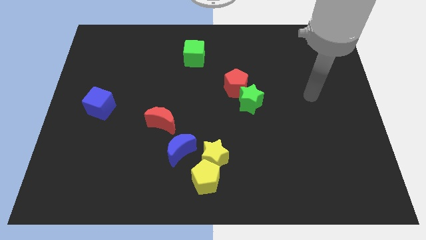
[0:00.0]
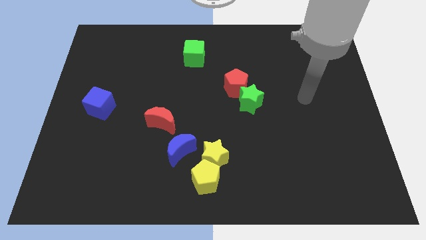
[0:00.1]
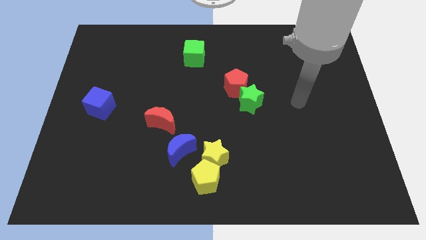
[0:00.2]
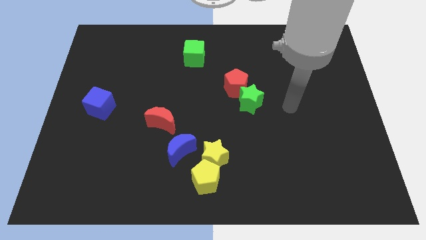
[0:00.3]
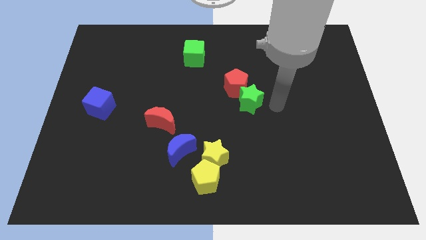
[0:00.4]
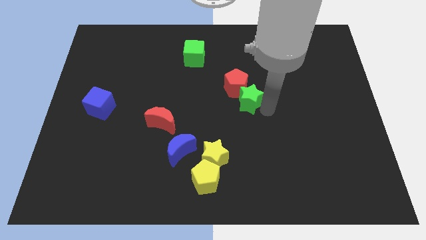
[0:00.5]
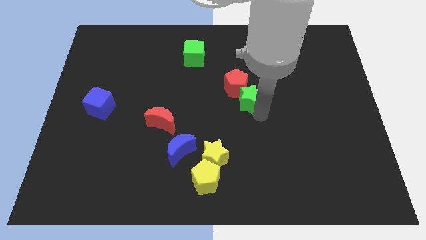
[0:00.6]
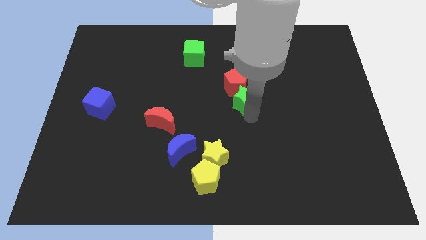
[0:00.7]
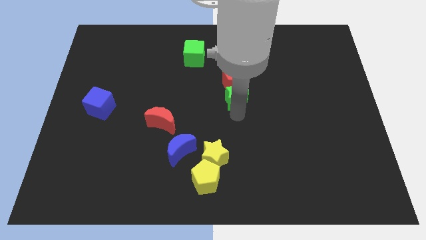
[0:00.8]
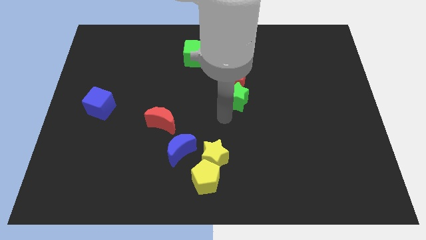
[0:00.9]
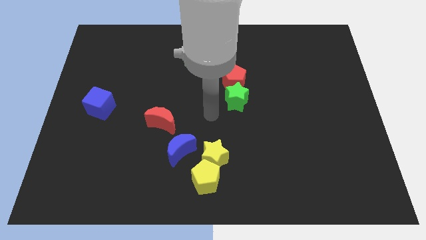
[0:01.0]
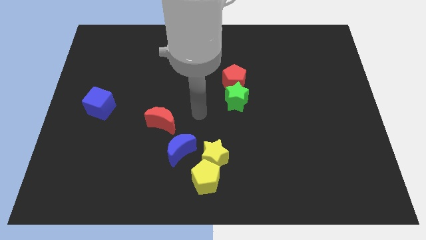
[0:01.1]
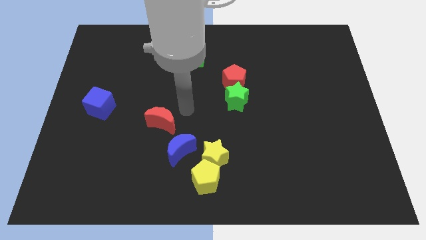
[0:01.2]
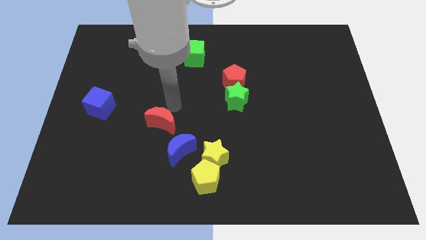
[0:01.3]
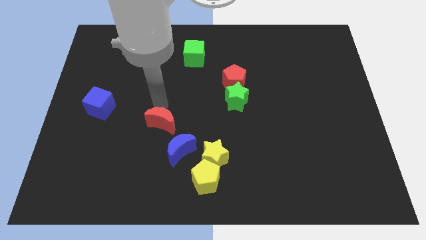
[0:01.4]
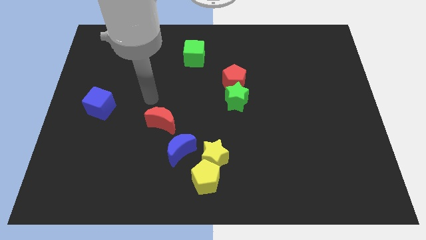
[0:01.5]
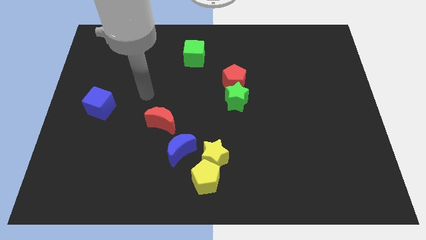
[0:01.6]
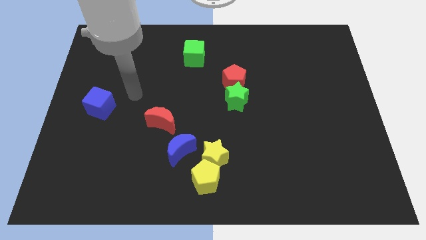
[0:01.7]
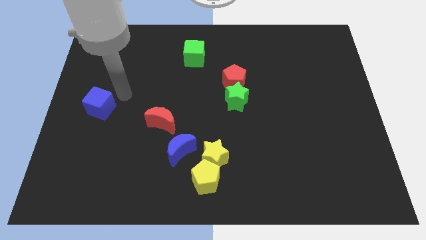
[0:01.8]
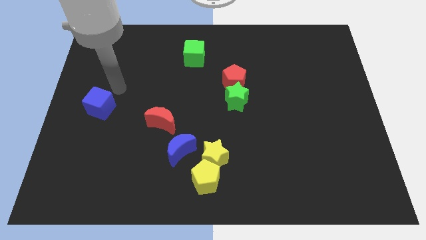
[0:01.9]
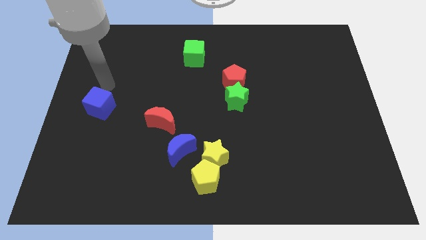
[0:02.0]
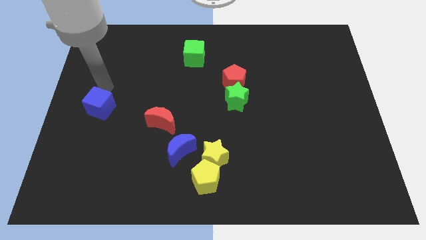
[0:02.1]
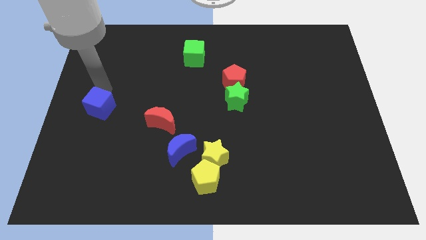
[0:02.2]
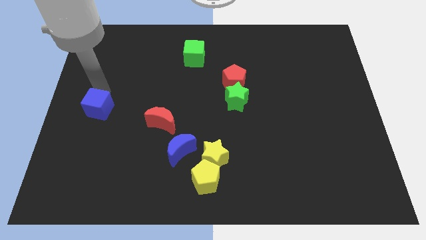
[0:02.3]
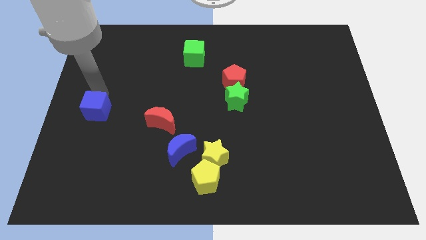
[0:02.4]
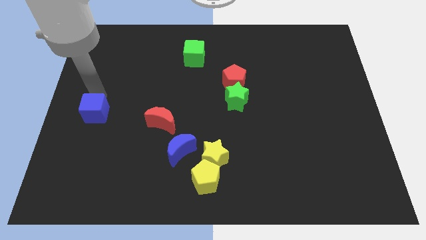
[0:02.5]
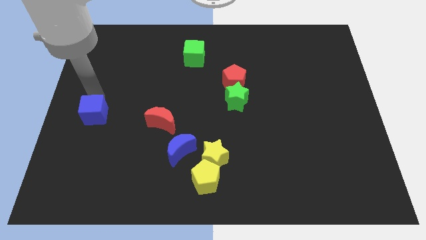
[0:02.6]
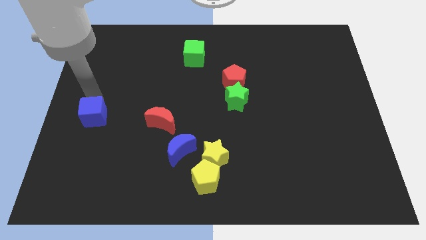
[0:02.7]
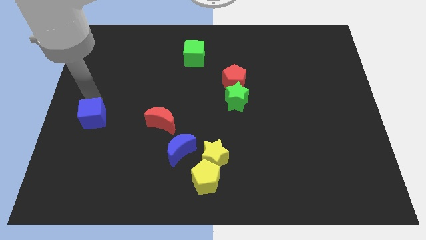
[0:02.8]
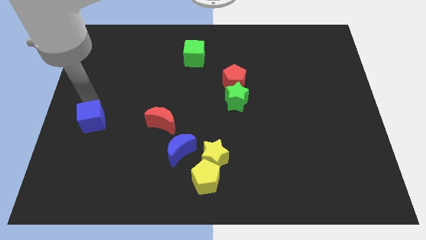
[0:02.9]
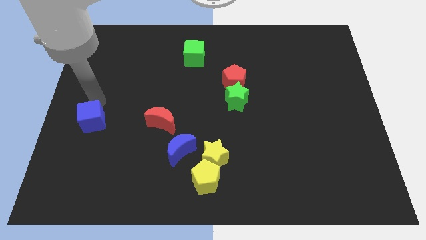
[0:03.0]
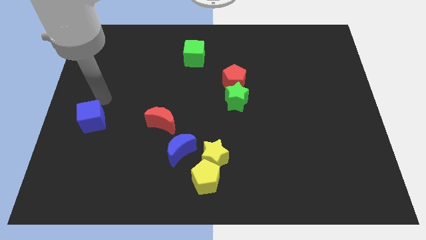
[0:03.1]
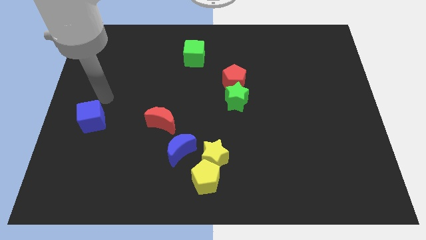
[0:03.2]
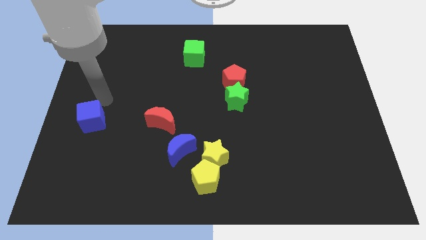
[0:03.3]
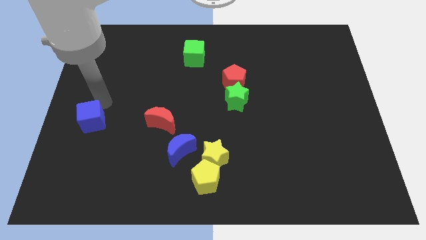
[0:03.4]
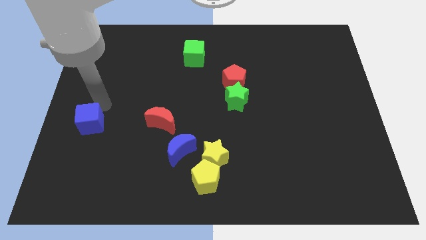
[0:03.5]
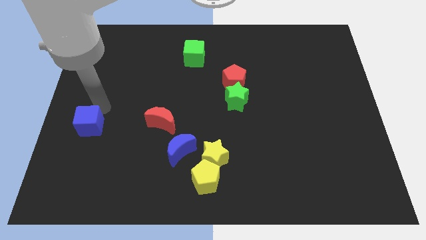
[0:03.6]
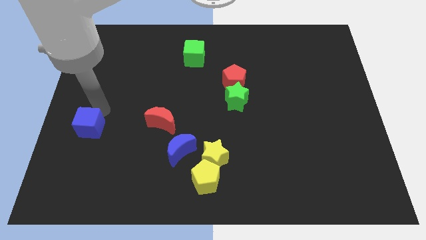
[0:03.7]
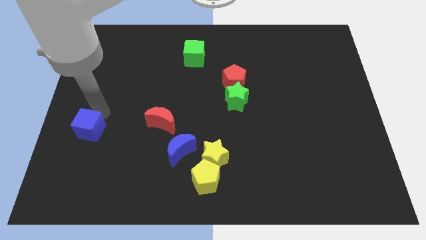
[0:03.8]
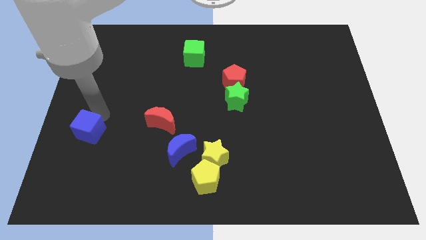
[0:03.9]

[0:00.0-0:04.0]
slightly move the blue cube down

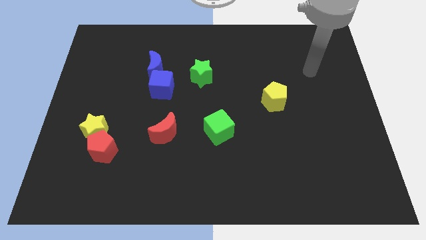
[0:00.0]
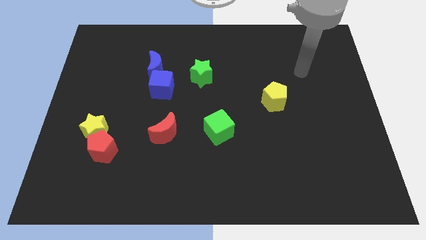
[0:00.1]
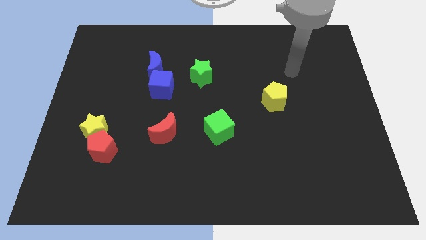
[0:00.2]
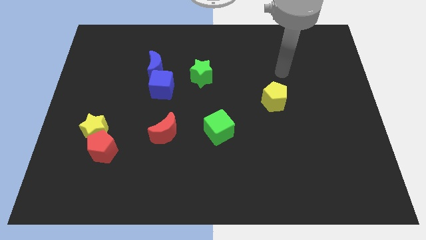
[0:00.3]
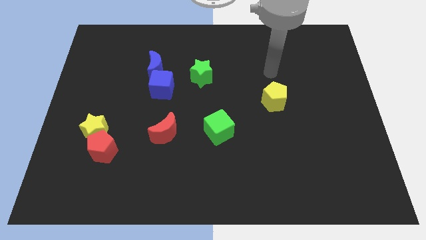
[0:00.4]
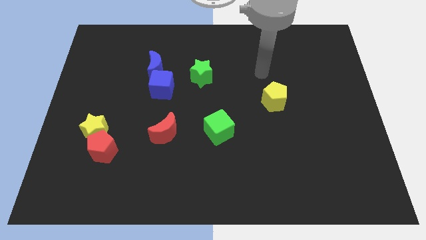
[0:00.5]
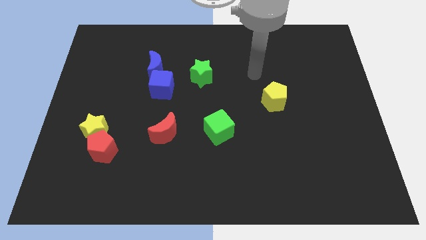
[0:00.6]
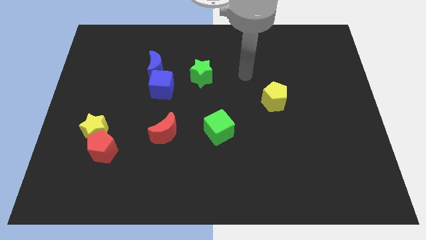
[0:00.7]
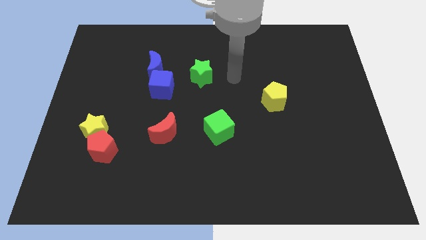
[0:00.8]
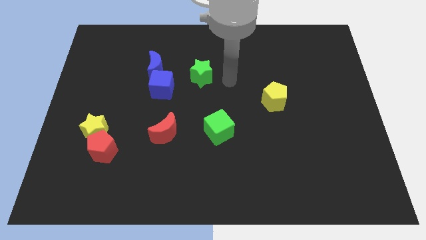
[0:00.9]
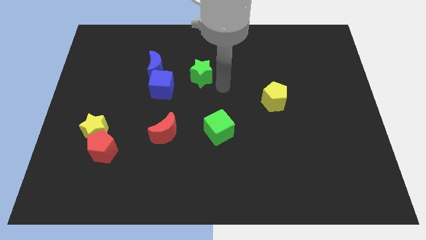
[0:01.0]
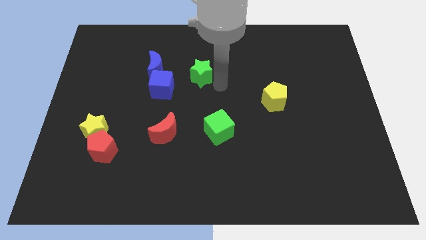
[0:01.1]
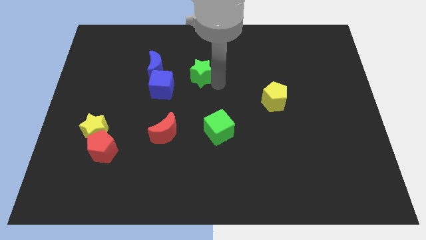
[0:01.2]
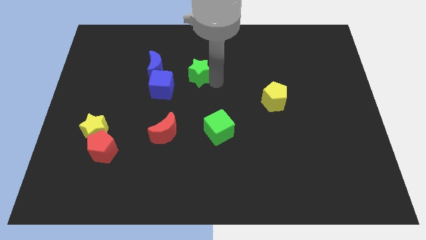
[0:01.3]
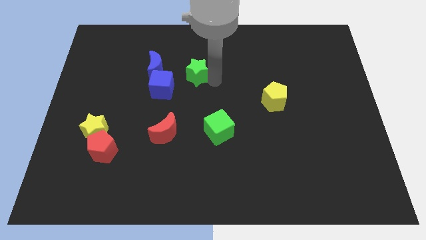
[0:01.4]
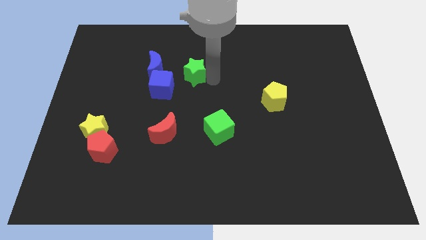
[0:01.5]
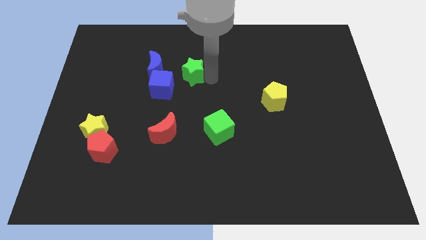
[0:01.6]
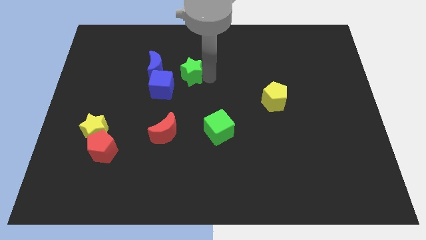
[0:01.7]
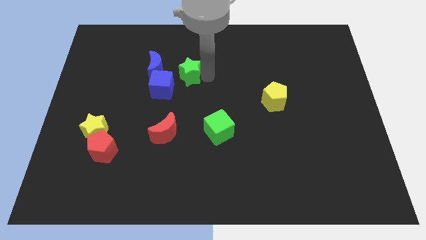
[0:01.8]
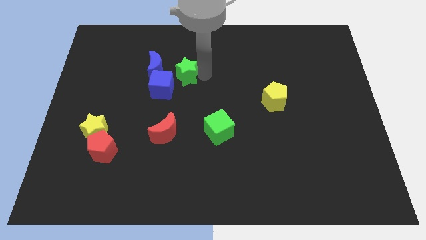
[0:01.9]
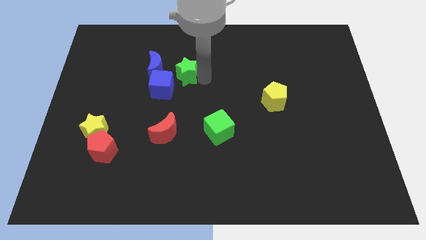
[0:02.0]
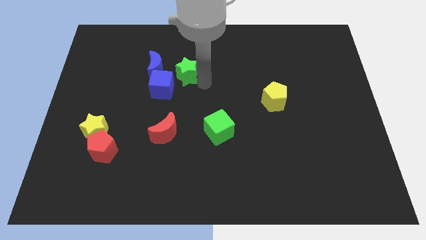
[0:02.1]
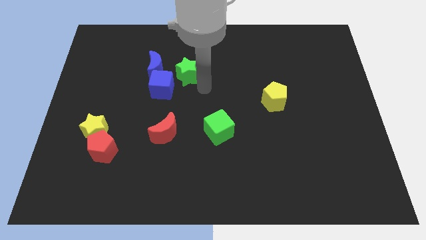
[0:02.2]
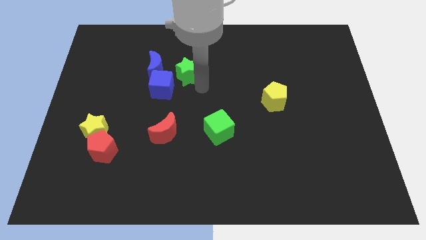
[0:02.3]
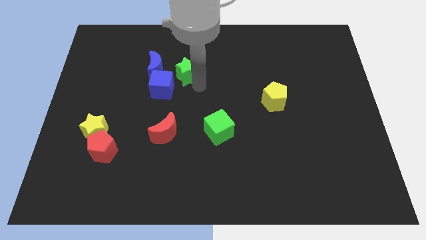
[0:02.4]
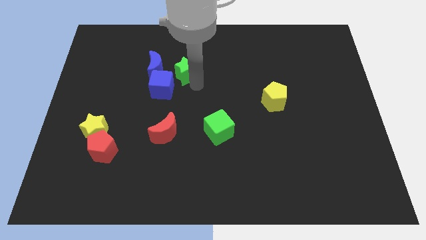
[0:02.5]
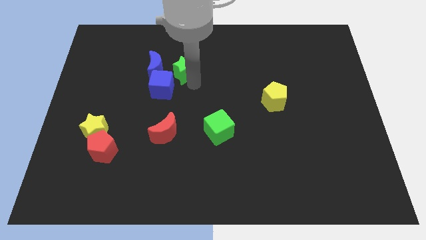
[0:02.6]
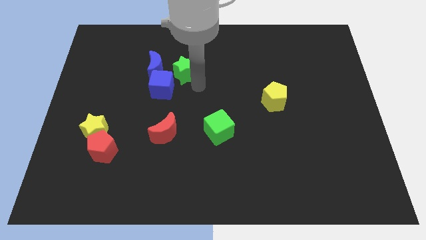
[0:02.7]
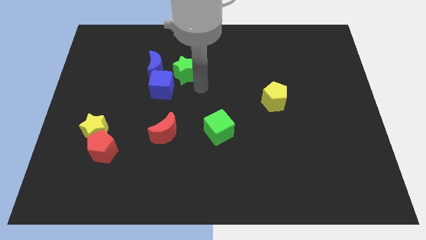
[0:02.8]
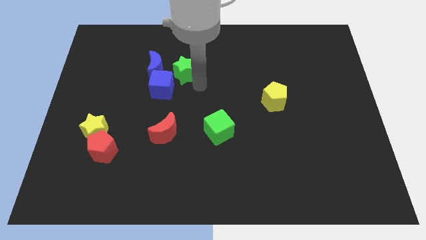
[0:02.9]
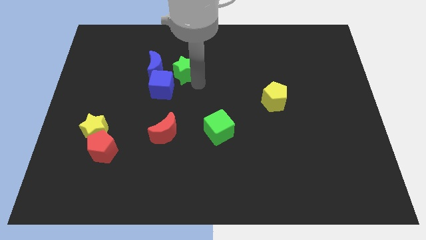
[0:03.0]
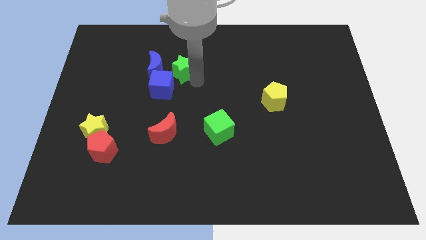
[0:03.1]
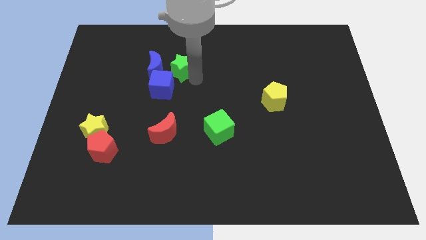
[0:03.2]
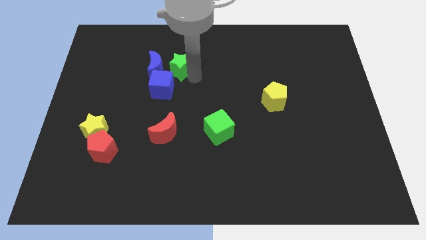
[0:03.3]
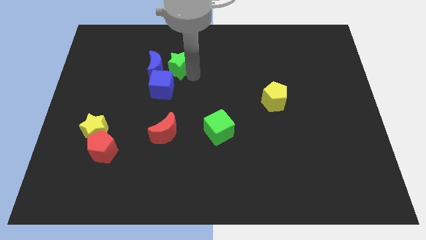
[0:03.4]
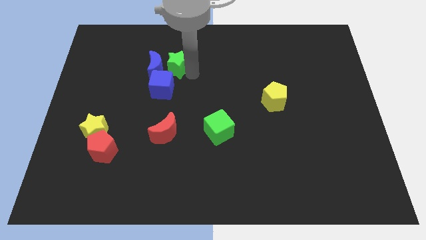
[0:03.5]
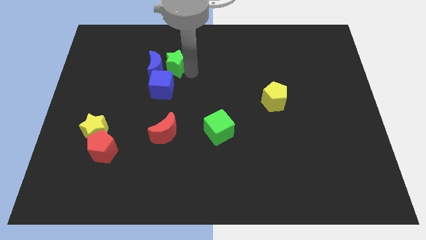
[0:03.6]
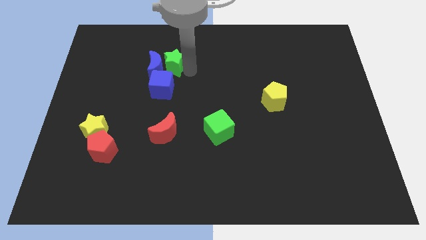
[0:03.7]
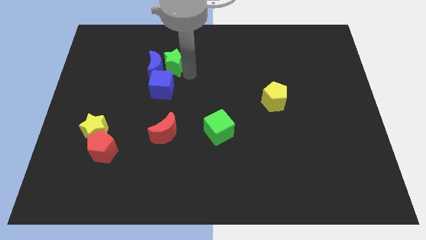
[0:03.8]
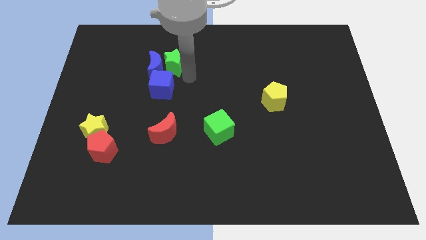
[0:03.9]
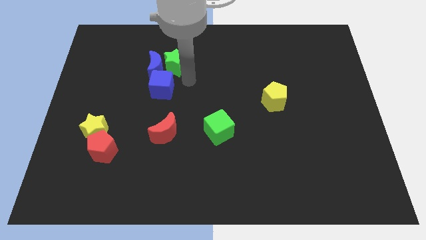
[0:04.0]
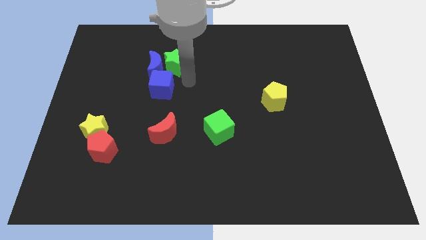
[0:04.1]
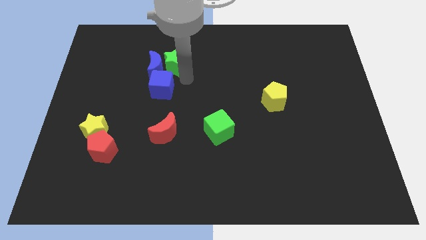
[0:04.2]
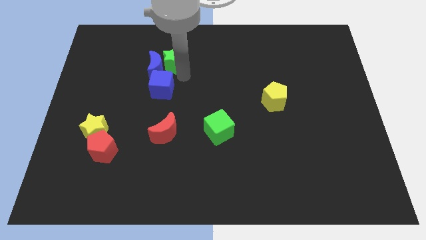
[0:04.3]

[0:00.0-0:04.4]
slightly push the green star left
